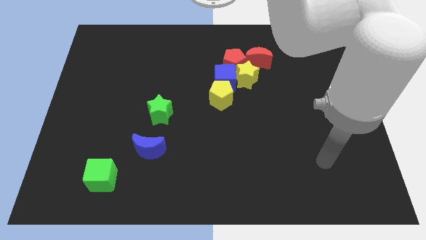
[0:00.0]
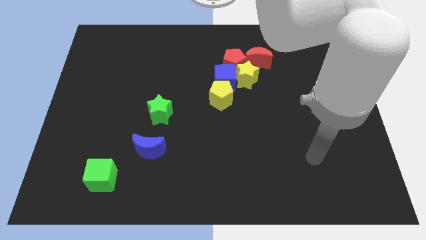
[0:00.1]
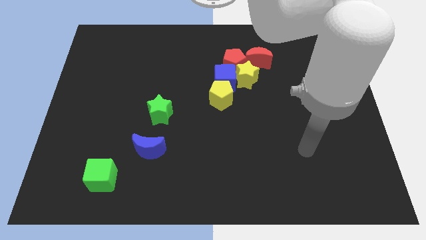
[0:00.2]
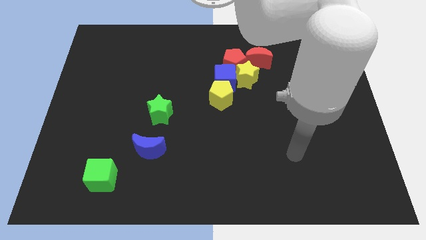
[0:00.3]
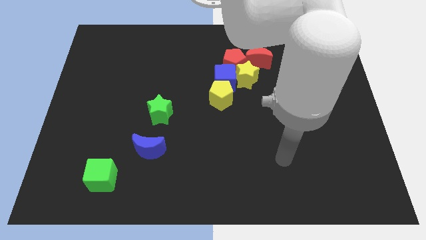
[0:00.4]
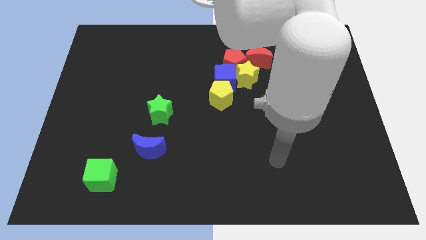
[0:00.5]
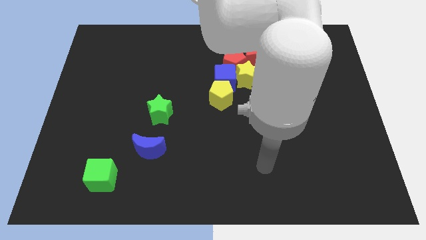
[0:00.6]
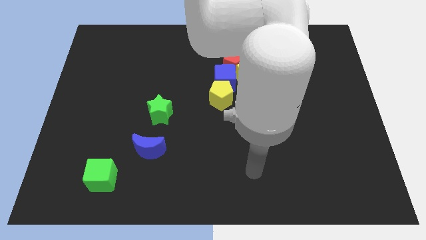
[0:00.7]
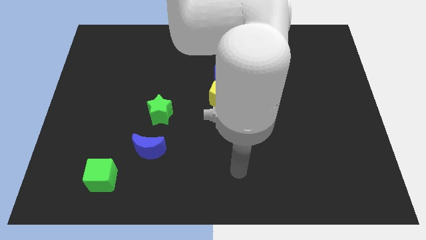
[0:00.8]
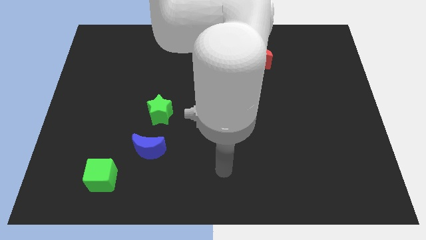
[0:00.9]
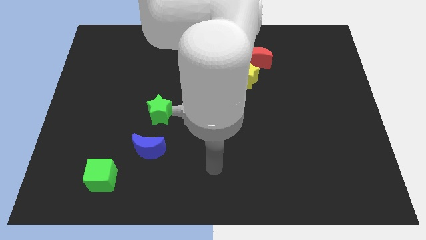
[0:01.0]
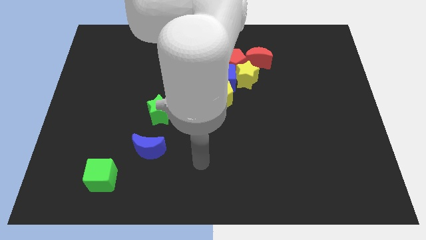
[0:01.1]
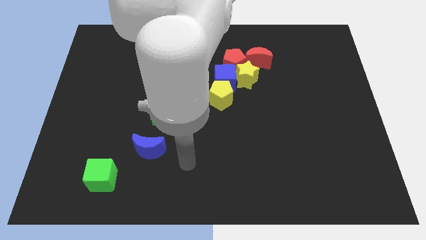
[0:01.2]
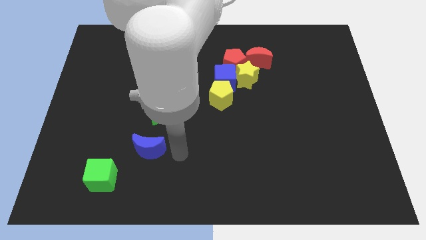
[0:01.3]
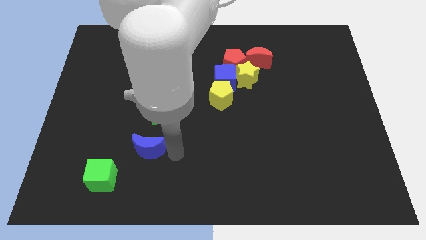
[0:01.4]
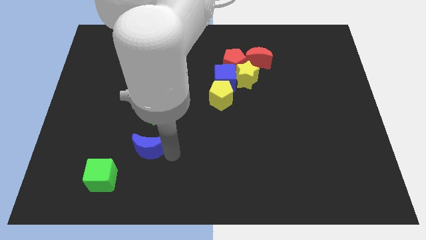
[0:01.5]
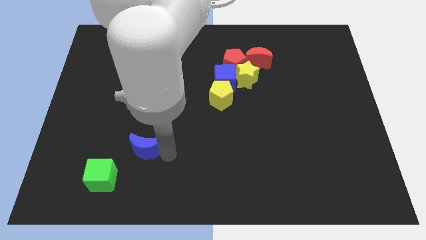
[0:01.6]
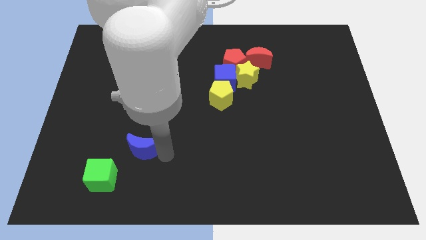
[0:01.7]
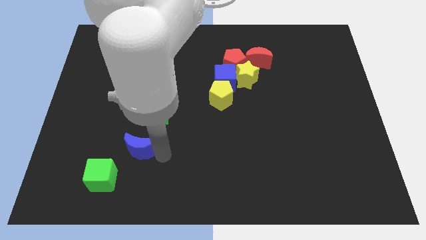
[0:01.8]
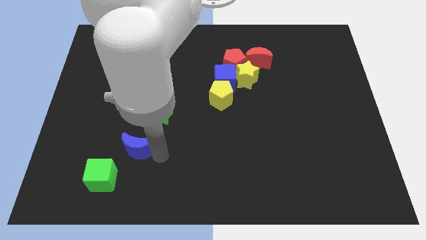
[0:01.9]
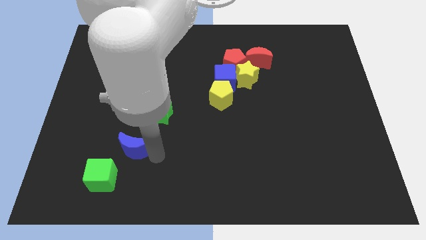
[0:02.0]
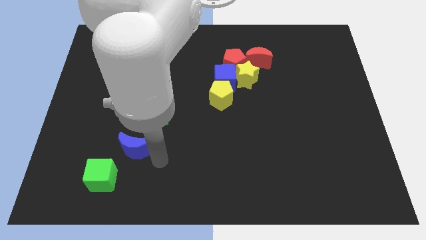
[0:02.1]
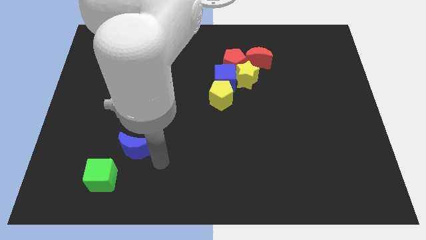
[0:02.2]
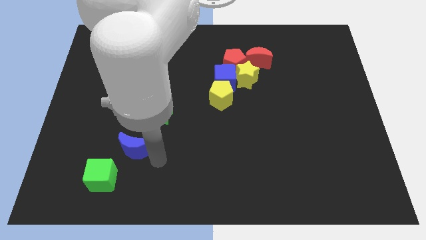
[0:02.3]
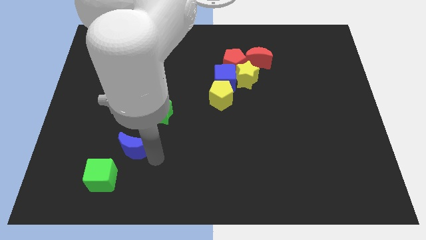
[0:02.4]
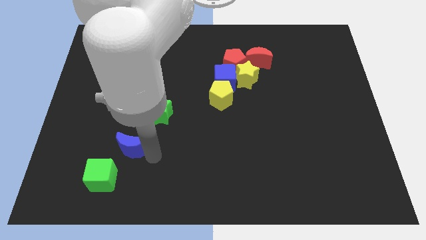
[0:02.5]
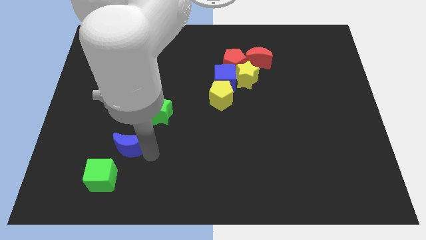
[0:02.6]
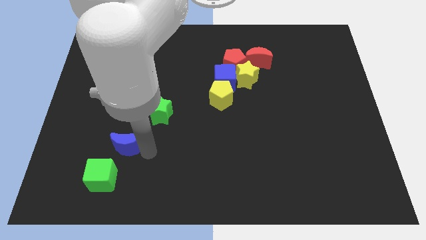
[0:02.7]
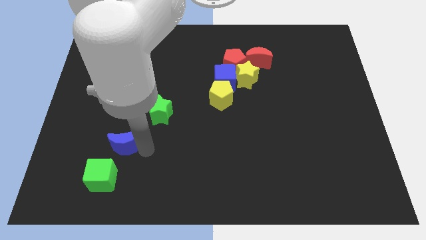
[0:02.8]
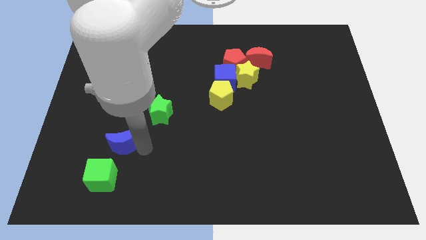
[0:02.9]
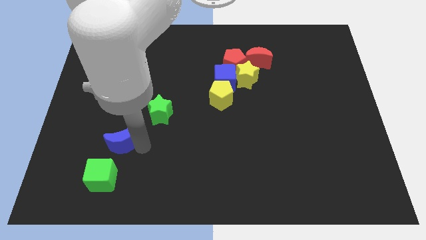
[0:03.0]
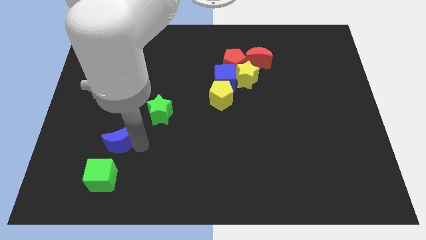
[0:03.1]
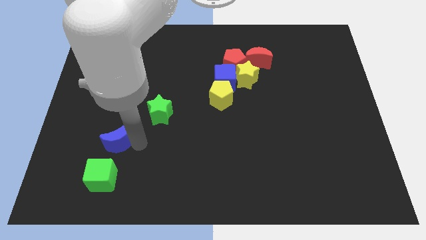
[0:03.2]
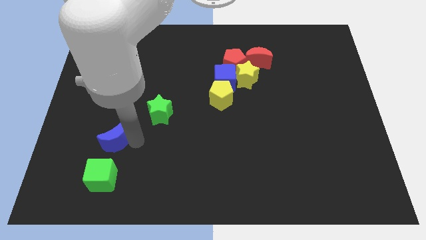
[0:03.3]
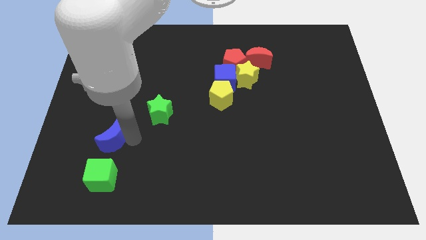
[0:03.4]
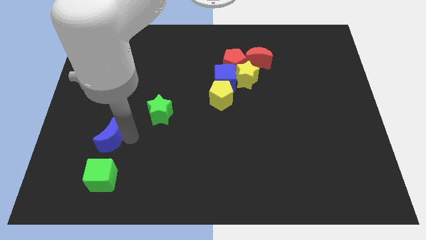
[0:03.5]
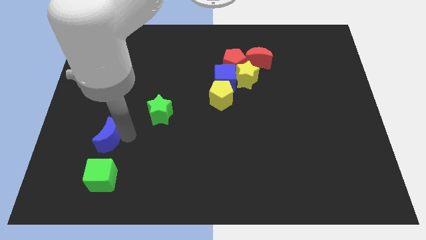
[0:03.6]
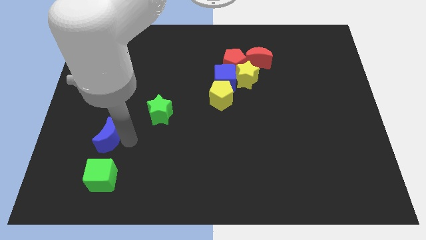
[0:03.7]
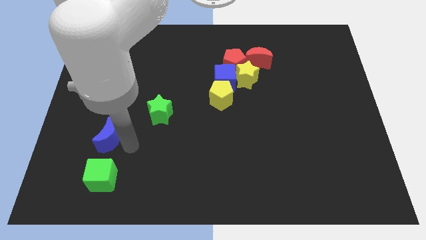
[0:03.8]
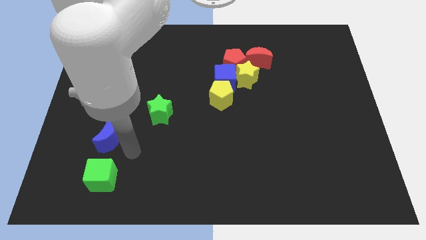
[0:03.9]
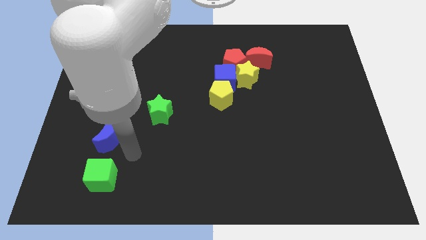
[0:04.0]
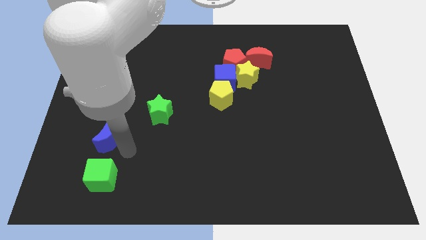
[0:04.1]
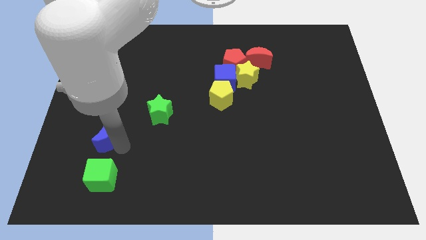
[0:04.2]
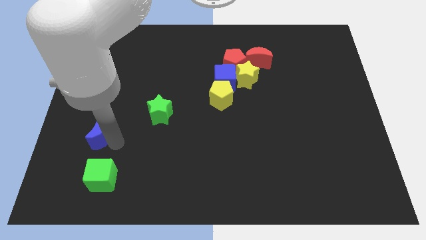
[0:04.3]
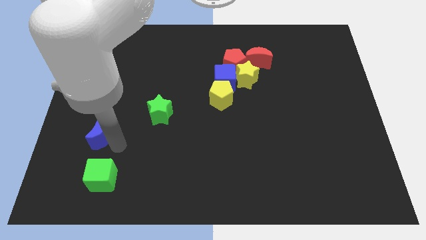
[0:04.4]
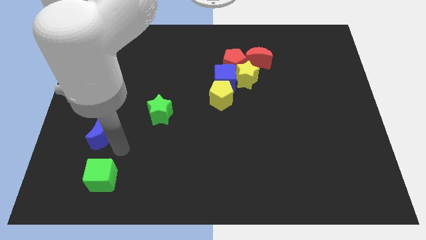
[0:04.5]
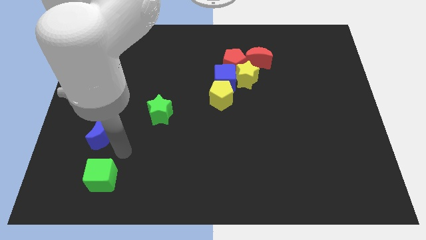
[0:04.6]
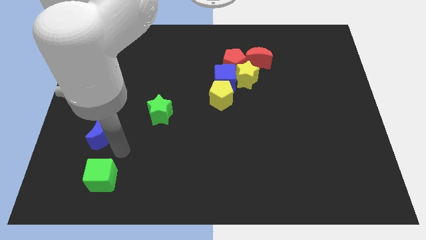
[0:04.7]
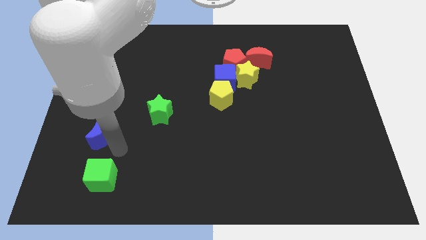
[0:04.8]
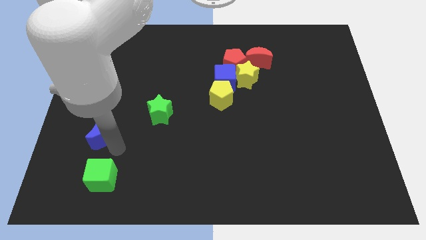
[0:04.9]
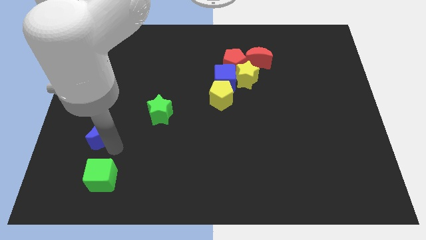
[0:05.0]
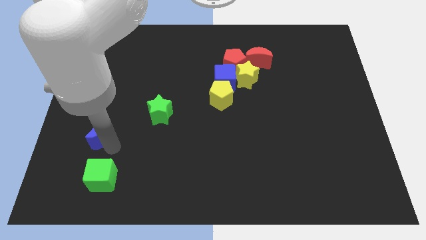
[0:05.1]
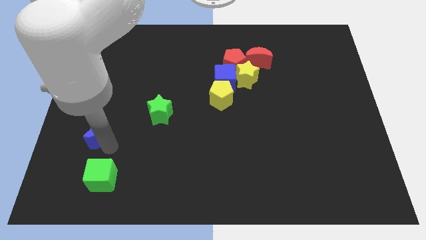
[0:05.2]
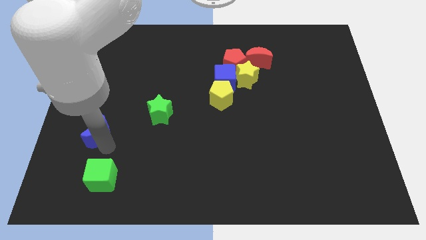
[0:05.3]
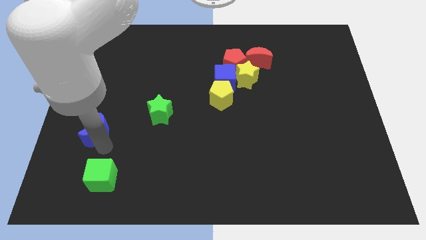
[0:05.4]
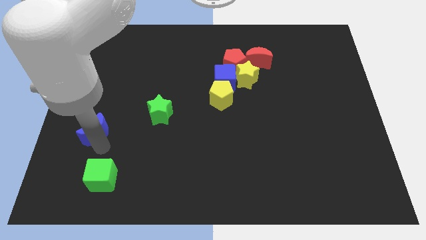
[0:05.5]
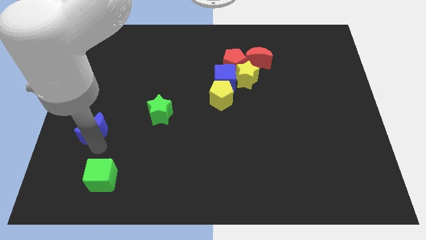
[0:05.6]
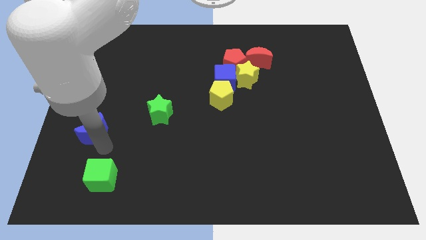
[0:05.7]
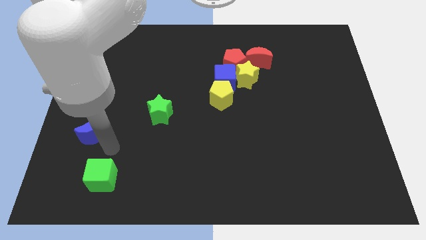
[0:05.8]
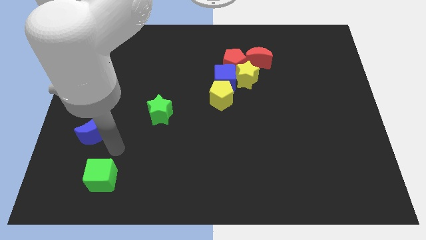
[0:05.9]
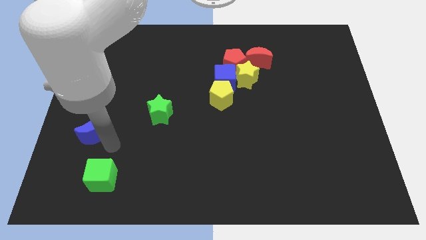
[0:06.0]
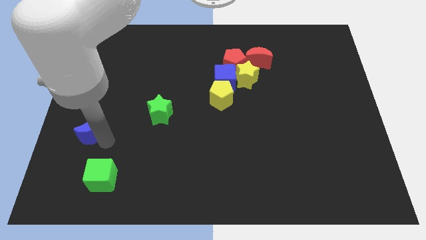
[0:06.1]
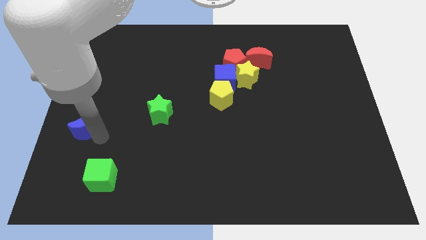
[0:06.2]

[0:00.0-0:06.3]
move the blue moon to the left side of the board
